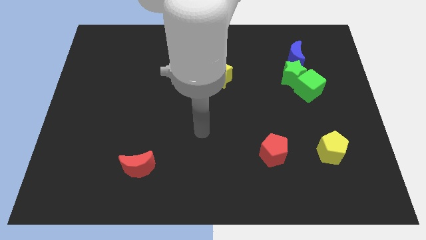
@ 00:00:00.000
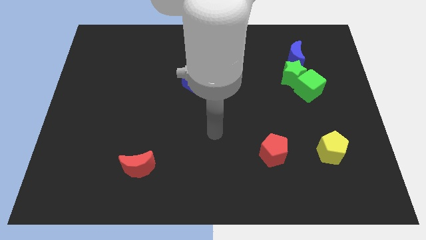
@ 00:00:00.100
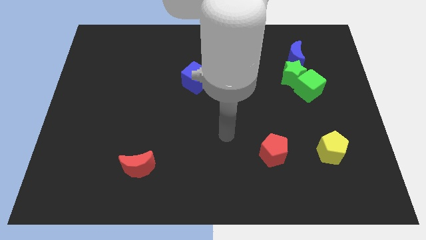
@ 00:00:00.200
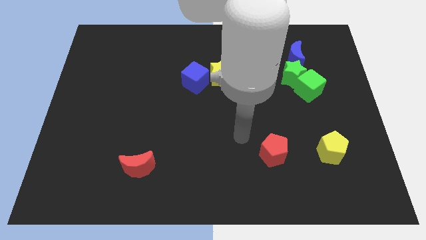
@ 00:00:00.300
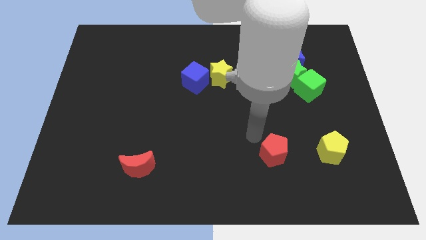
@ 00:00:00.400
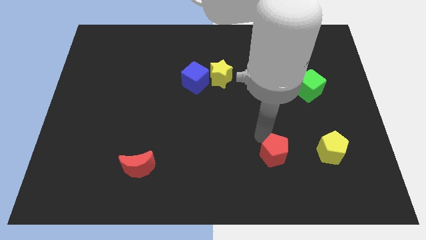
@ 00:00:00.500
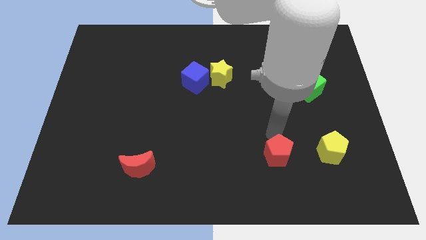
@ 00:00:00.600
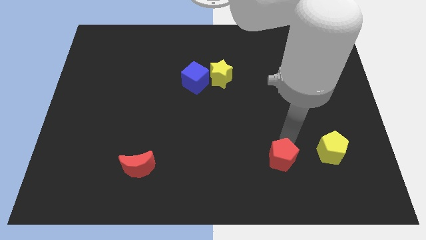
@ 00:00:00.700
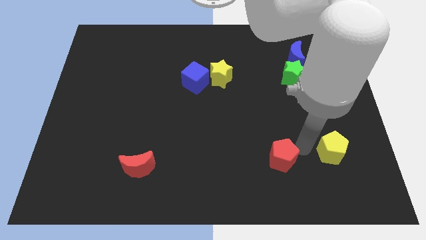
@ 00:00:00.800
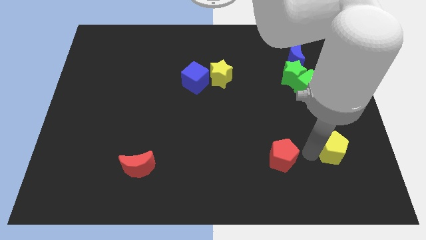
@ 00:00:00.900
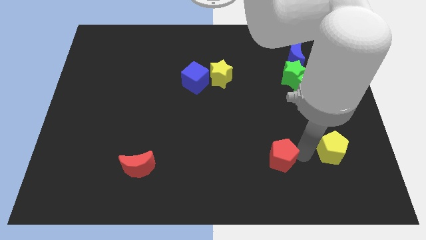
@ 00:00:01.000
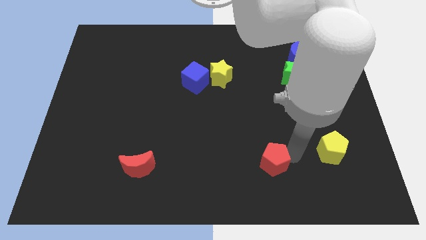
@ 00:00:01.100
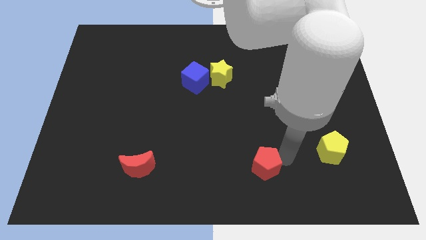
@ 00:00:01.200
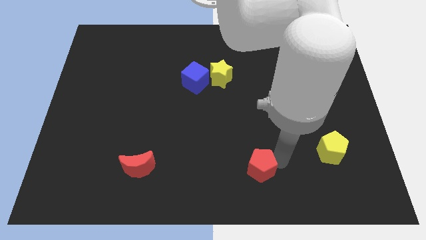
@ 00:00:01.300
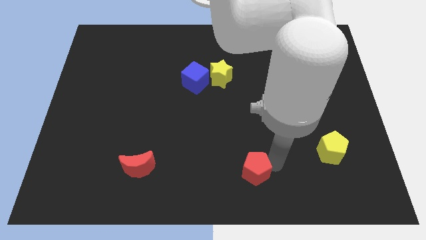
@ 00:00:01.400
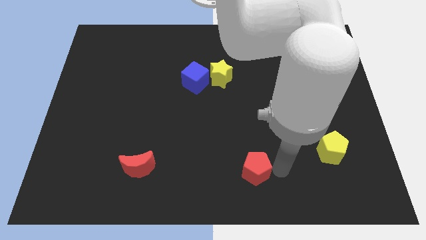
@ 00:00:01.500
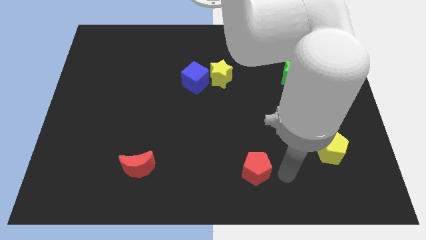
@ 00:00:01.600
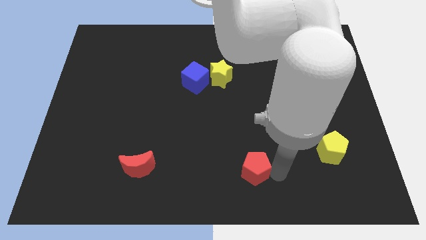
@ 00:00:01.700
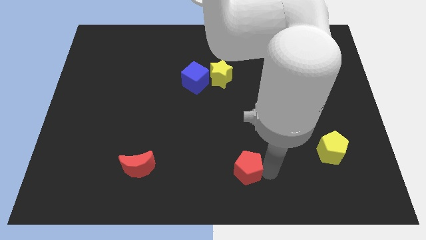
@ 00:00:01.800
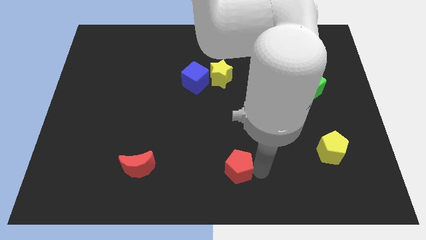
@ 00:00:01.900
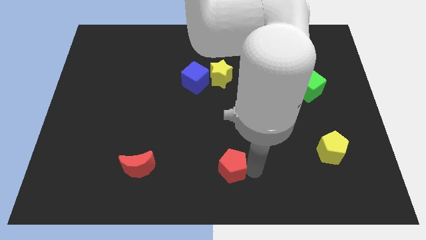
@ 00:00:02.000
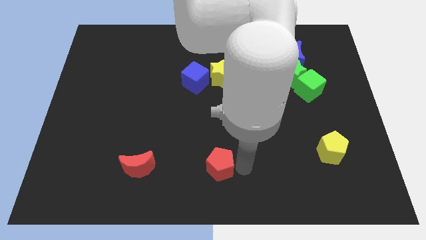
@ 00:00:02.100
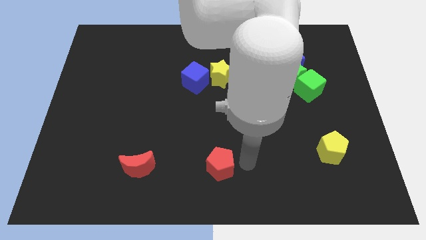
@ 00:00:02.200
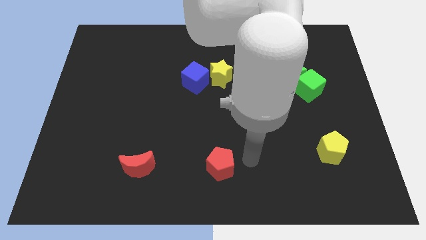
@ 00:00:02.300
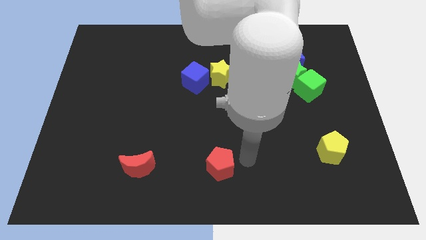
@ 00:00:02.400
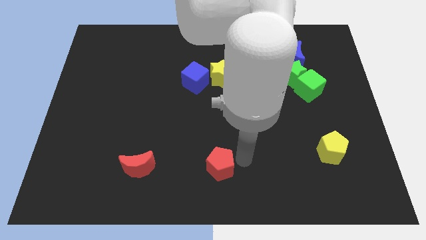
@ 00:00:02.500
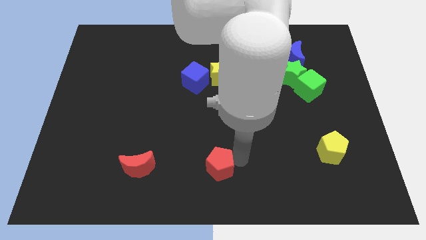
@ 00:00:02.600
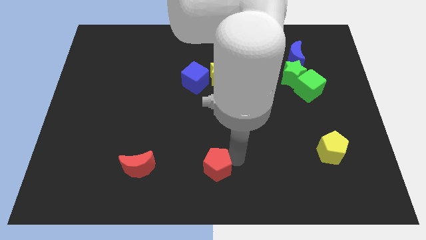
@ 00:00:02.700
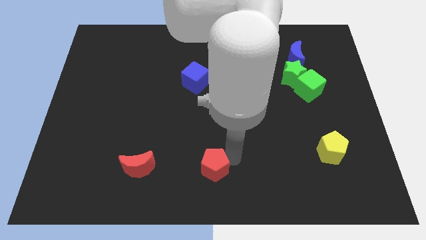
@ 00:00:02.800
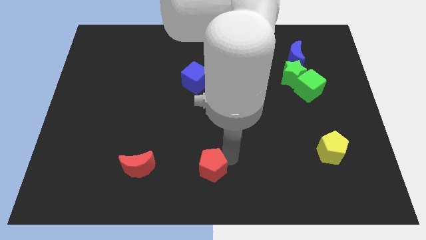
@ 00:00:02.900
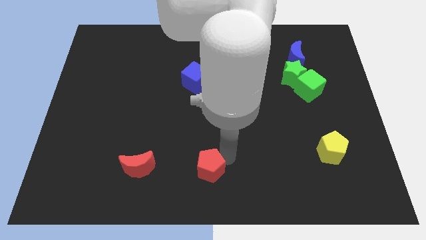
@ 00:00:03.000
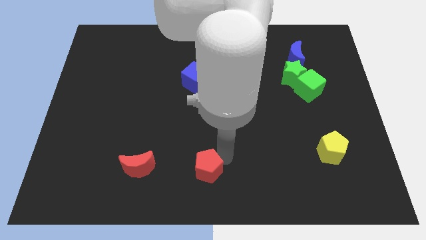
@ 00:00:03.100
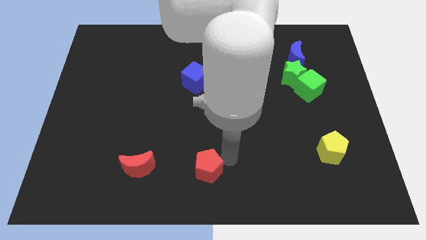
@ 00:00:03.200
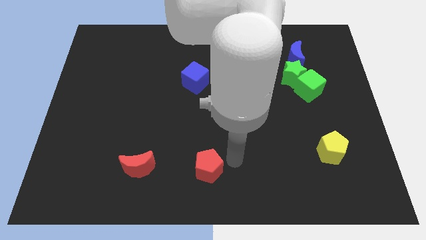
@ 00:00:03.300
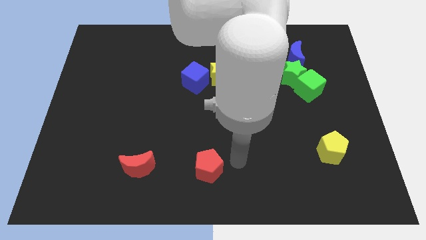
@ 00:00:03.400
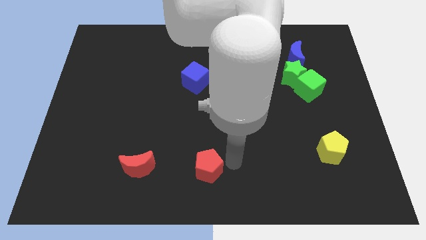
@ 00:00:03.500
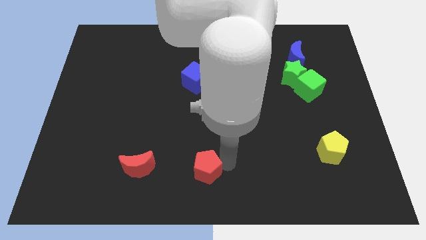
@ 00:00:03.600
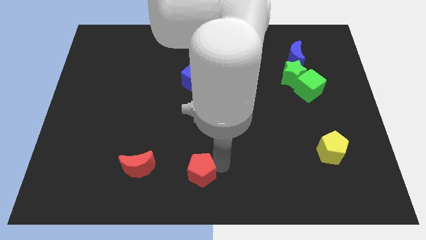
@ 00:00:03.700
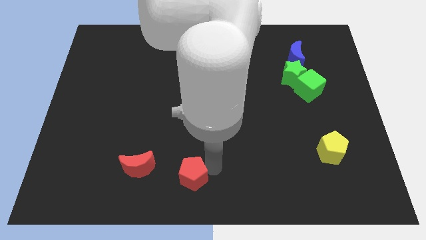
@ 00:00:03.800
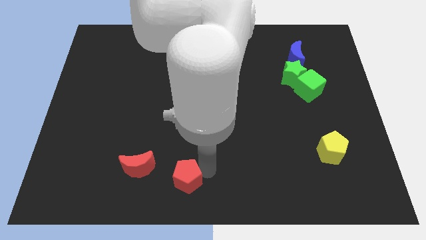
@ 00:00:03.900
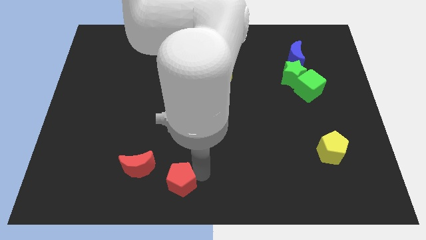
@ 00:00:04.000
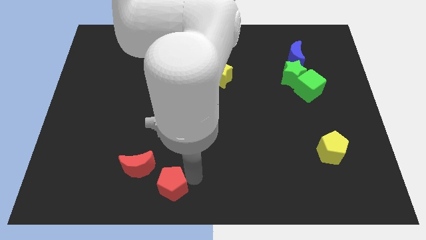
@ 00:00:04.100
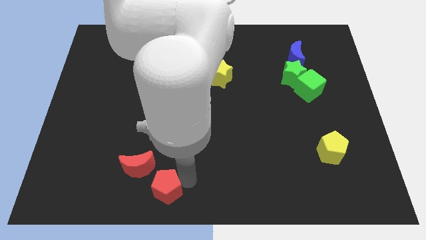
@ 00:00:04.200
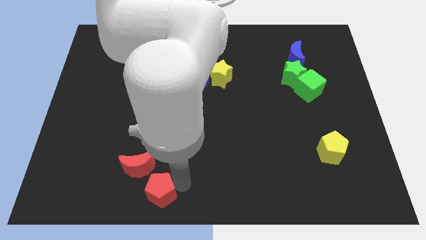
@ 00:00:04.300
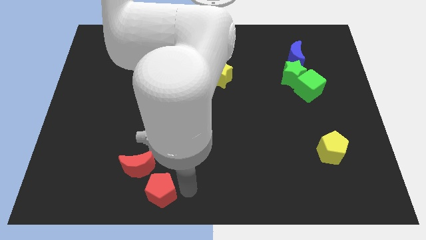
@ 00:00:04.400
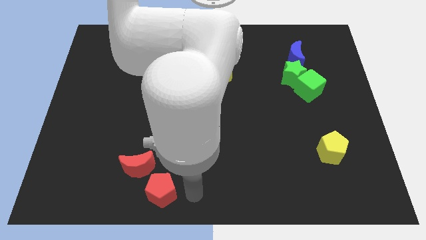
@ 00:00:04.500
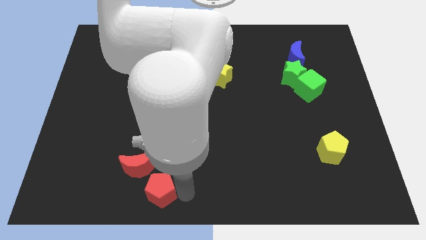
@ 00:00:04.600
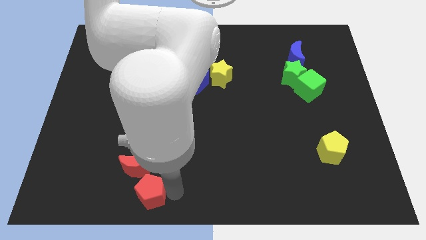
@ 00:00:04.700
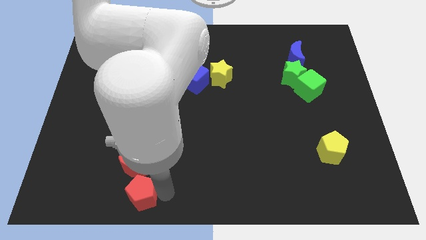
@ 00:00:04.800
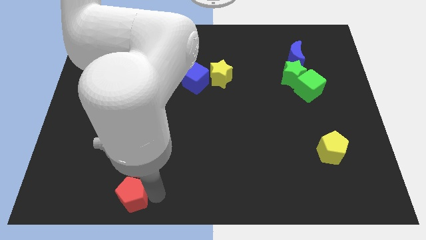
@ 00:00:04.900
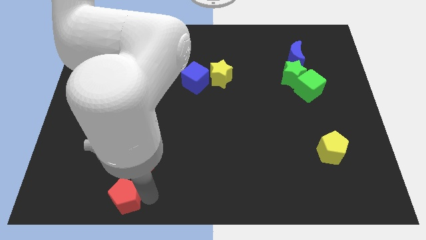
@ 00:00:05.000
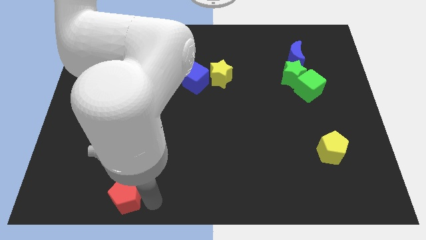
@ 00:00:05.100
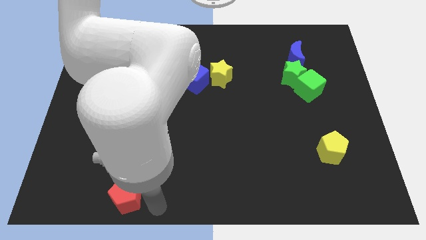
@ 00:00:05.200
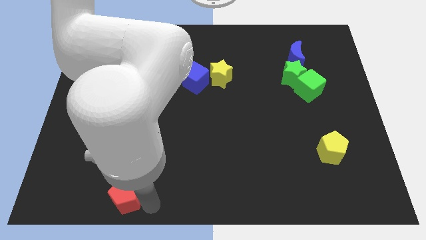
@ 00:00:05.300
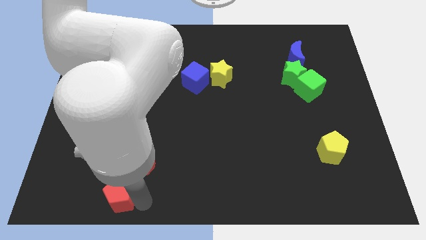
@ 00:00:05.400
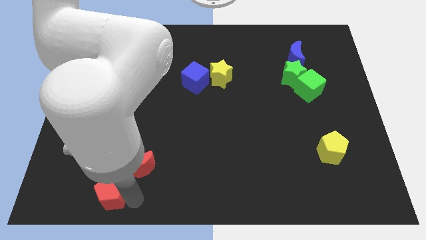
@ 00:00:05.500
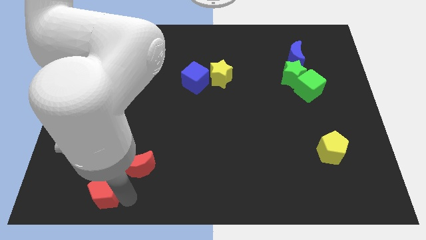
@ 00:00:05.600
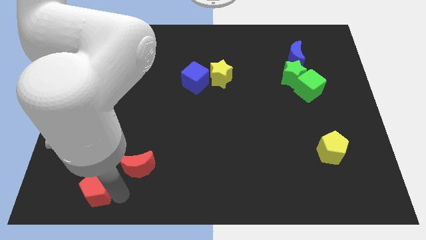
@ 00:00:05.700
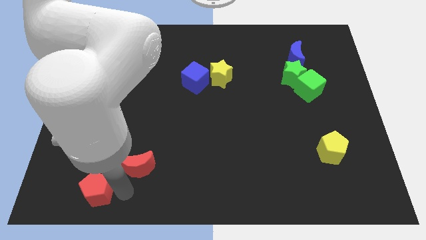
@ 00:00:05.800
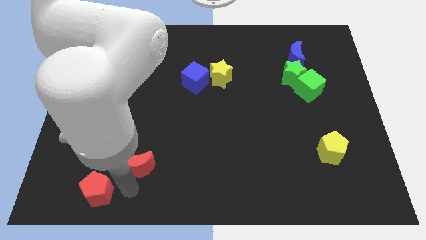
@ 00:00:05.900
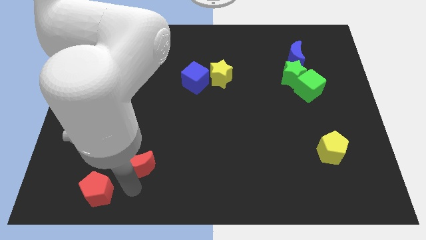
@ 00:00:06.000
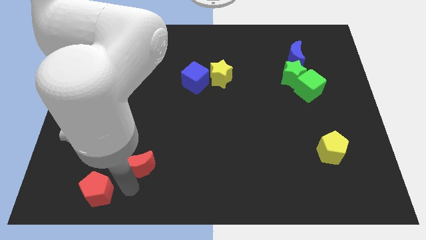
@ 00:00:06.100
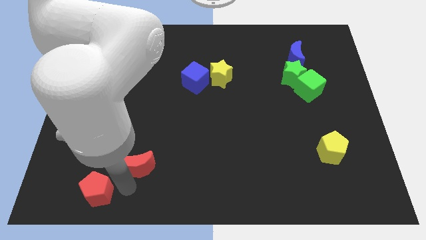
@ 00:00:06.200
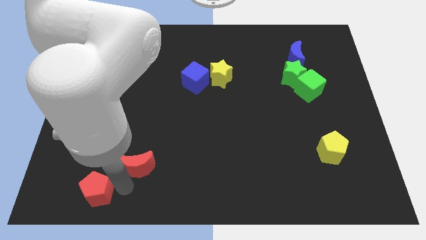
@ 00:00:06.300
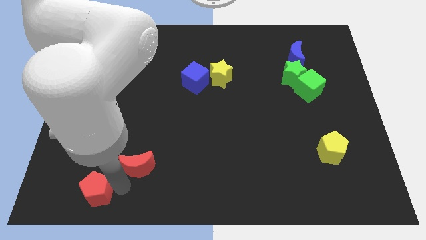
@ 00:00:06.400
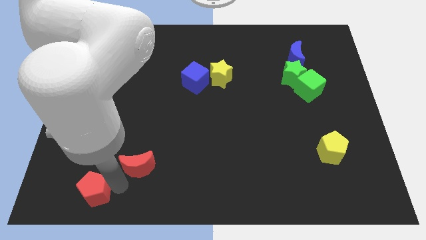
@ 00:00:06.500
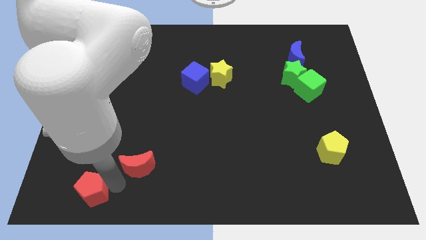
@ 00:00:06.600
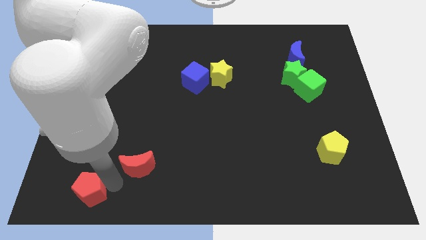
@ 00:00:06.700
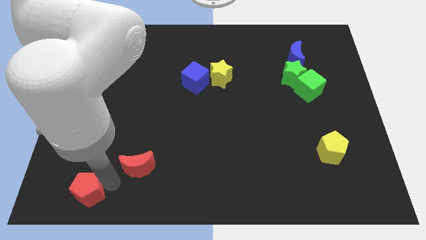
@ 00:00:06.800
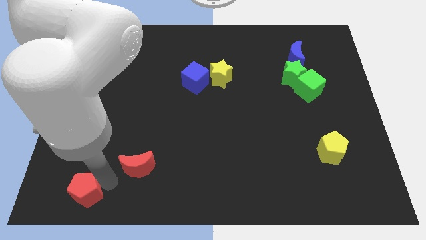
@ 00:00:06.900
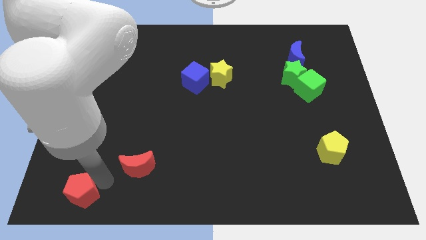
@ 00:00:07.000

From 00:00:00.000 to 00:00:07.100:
put the red pentagon to the bottom left corner
